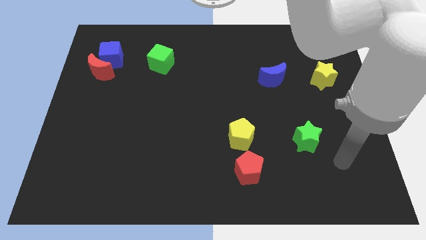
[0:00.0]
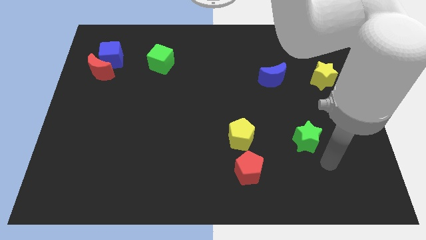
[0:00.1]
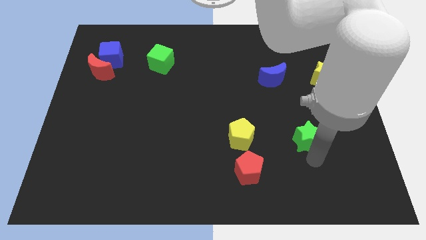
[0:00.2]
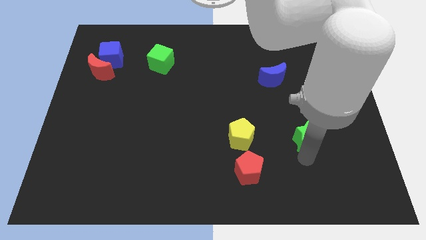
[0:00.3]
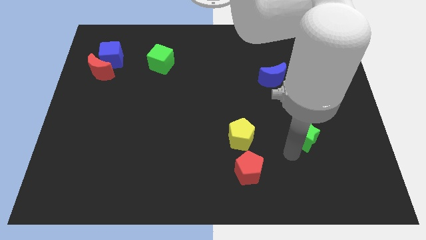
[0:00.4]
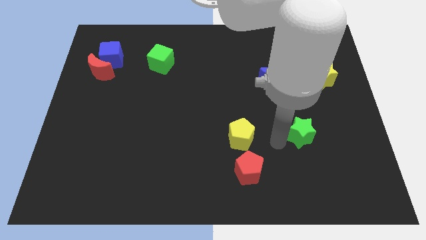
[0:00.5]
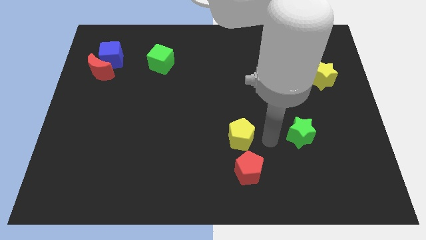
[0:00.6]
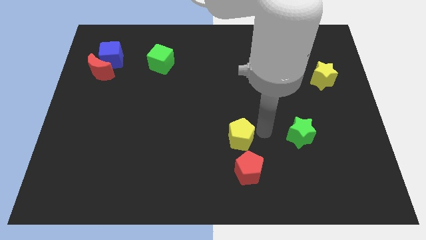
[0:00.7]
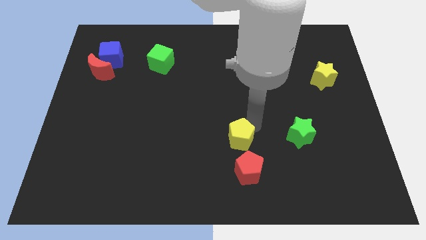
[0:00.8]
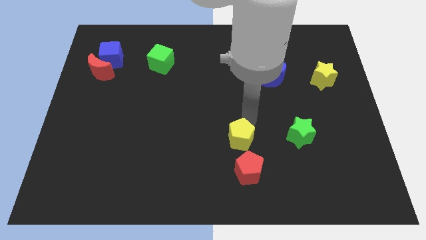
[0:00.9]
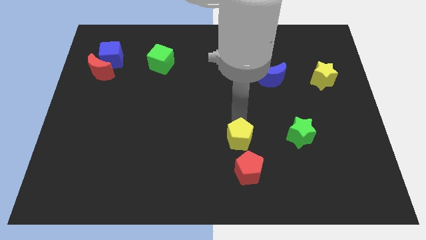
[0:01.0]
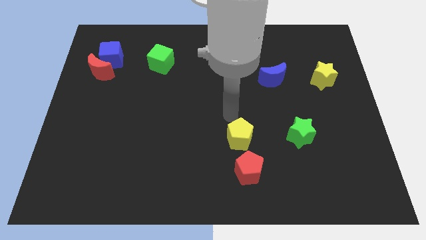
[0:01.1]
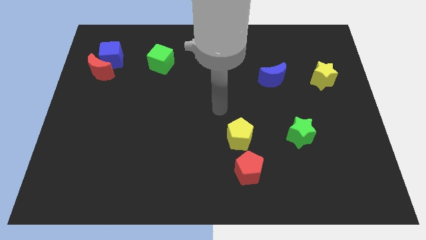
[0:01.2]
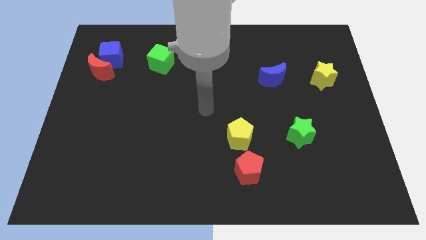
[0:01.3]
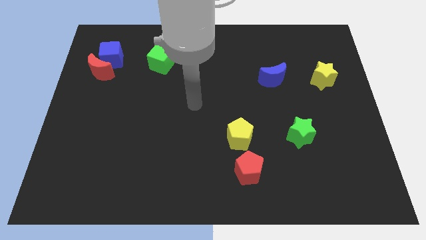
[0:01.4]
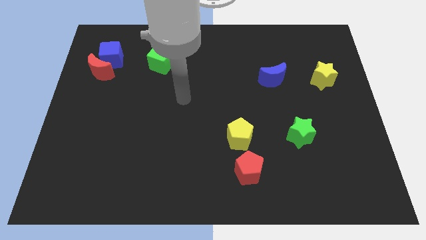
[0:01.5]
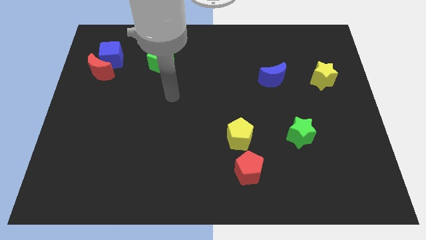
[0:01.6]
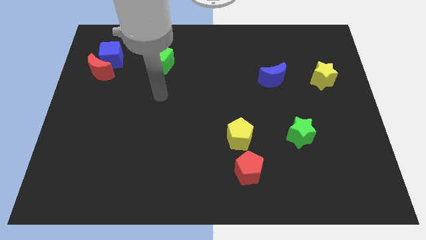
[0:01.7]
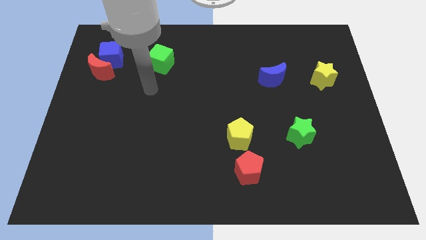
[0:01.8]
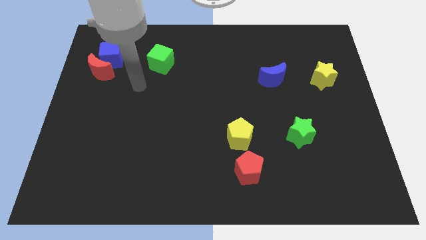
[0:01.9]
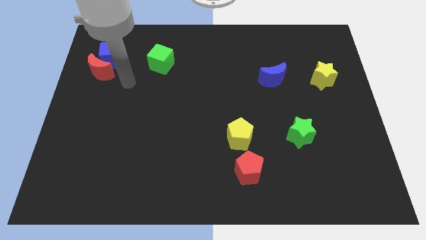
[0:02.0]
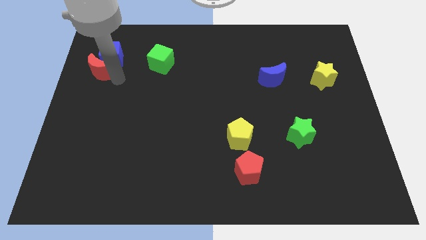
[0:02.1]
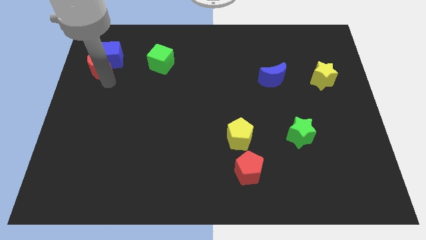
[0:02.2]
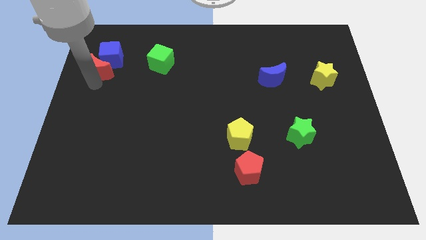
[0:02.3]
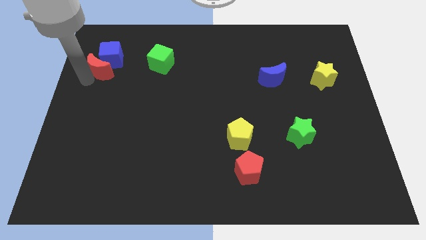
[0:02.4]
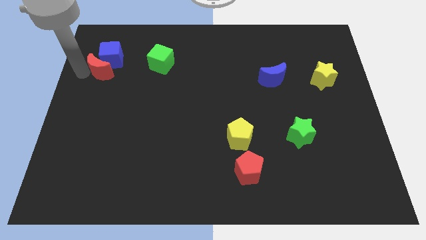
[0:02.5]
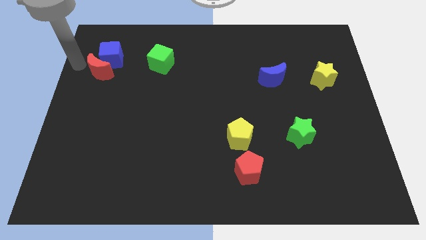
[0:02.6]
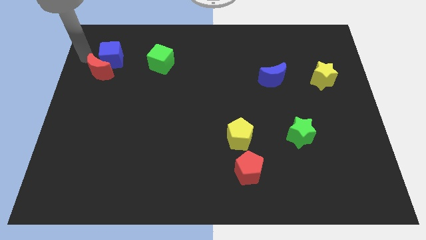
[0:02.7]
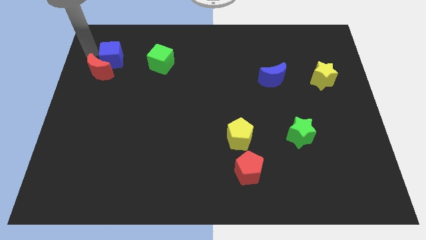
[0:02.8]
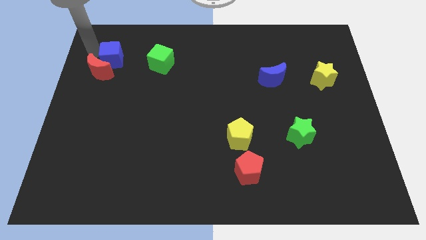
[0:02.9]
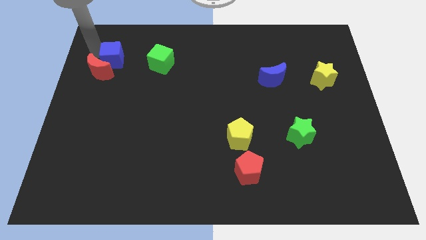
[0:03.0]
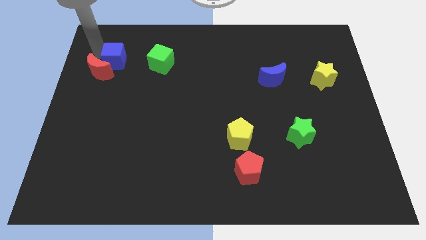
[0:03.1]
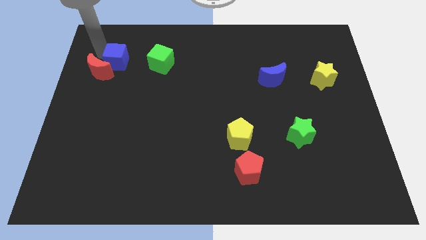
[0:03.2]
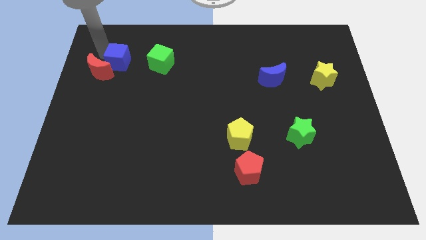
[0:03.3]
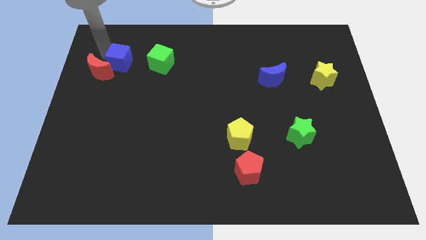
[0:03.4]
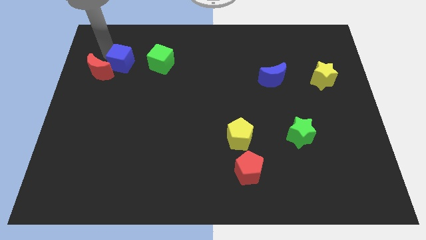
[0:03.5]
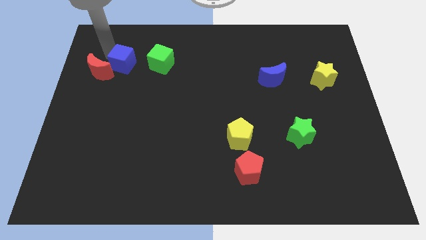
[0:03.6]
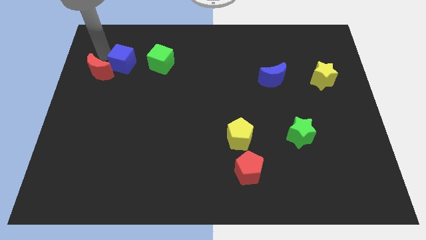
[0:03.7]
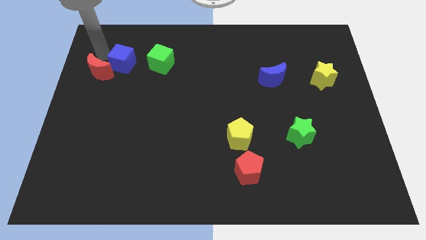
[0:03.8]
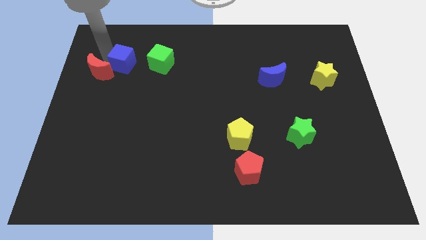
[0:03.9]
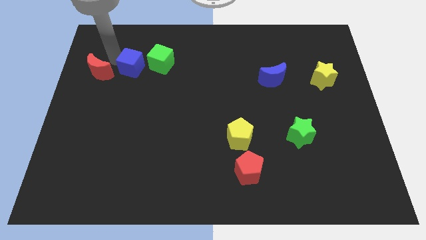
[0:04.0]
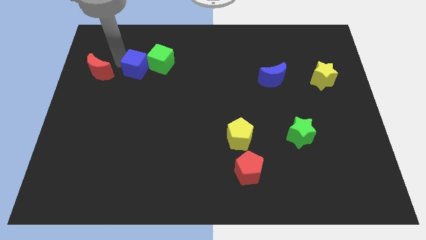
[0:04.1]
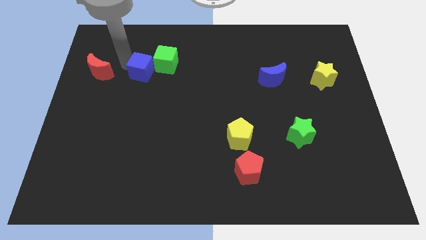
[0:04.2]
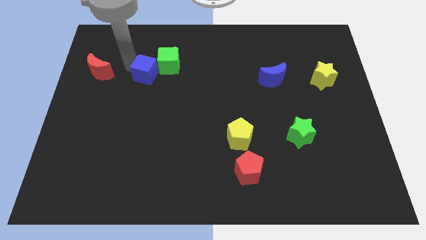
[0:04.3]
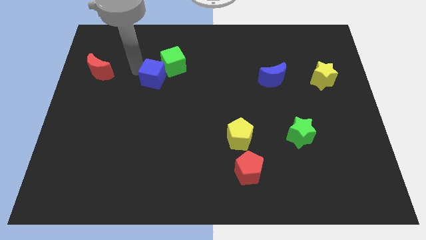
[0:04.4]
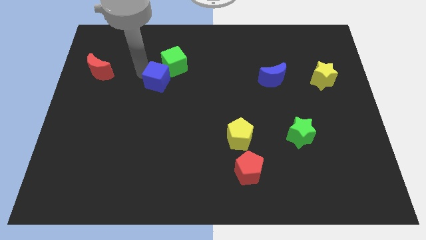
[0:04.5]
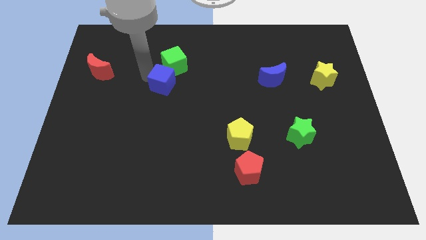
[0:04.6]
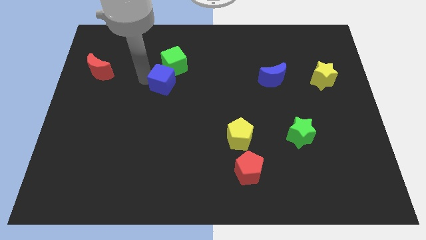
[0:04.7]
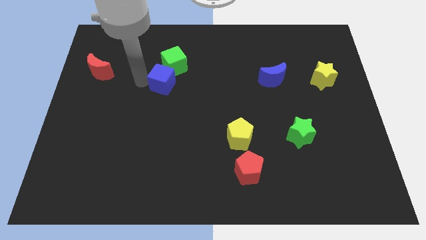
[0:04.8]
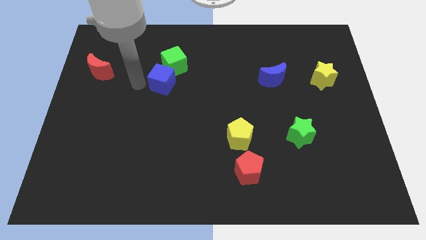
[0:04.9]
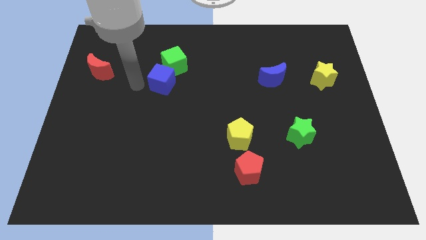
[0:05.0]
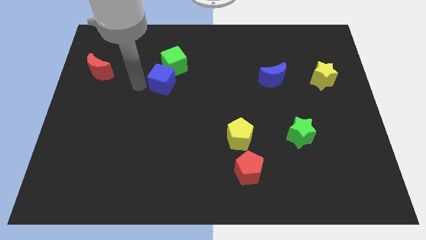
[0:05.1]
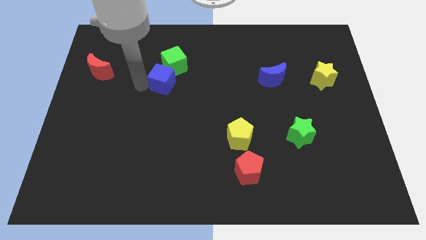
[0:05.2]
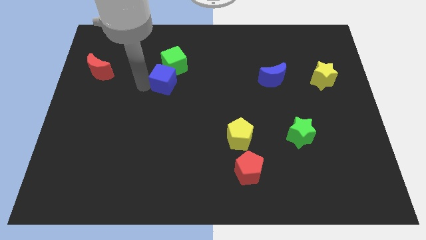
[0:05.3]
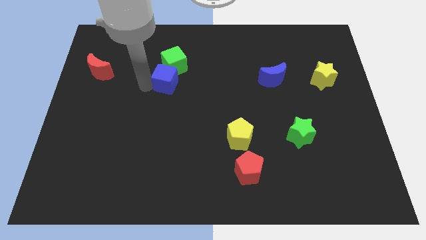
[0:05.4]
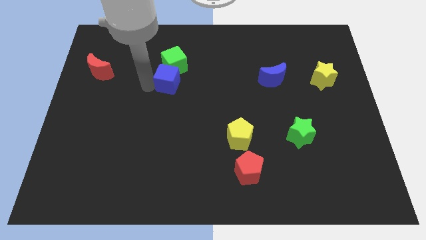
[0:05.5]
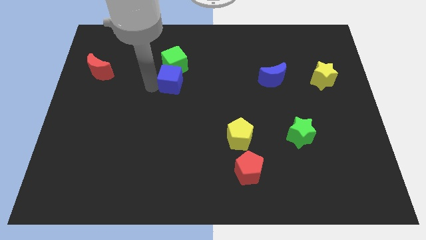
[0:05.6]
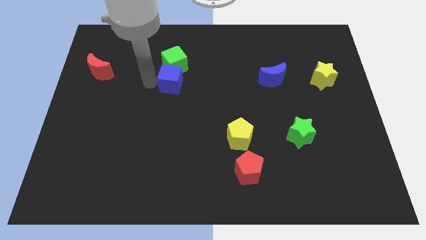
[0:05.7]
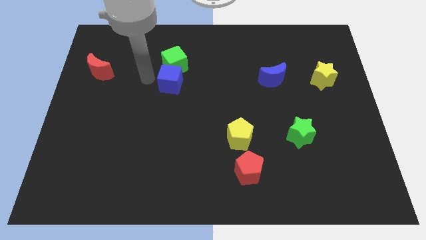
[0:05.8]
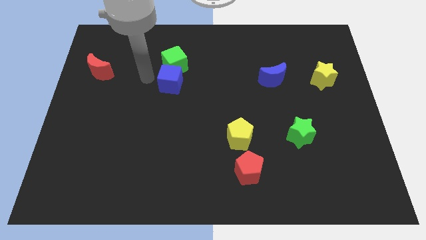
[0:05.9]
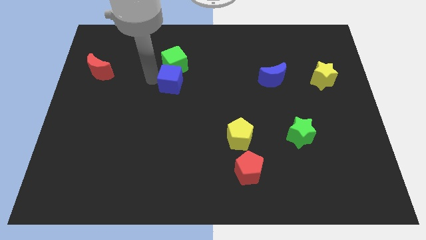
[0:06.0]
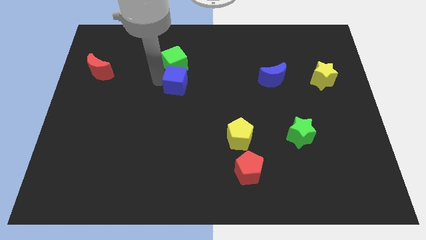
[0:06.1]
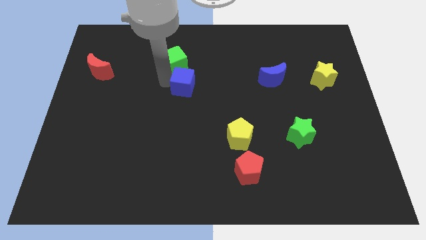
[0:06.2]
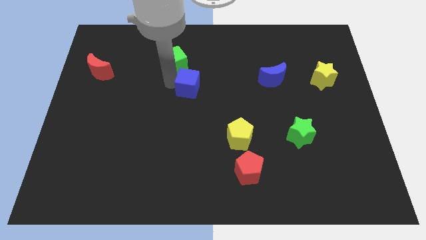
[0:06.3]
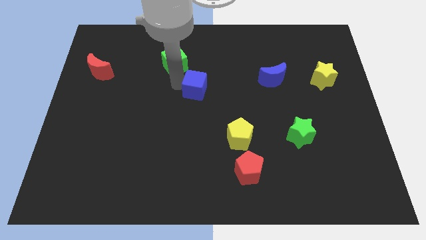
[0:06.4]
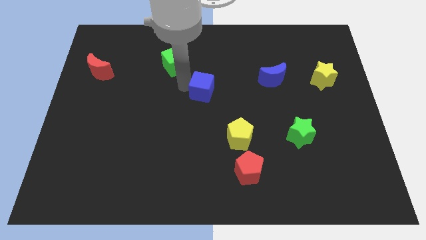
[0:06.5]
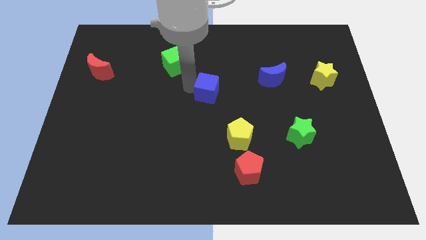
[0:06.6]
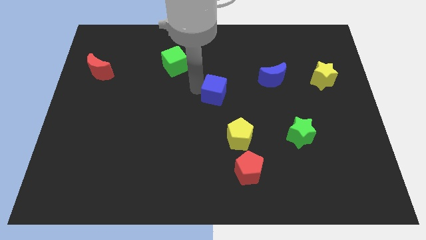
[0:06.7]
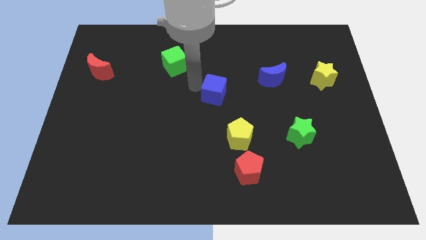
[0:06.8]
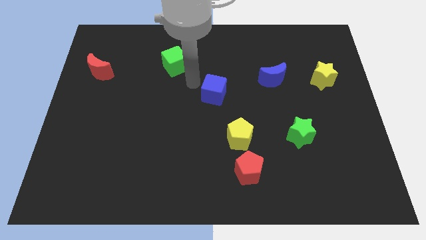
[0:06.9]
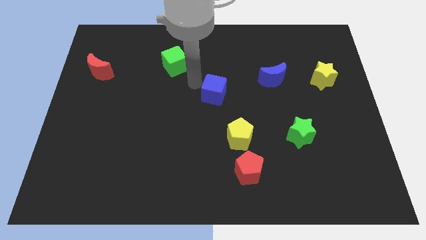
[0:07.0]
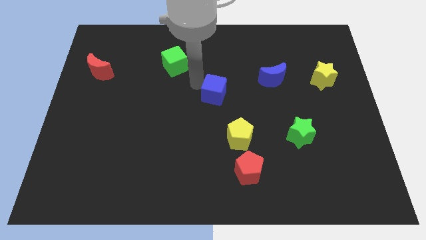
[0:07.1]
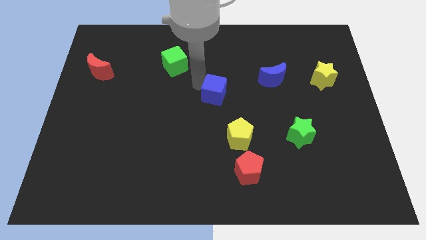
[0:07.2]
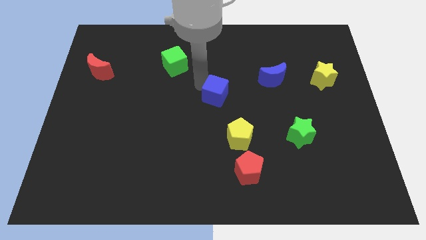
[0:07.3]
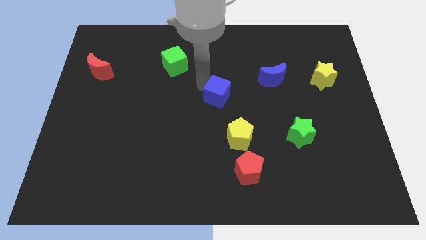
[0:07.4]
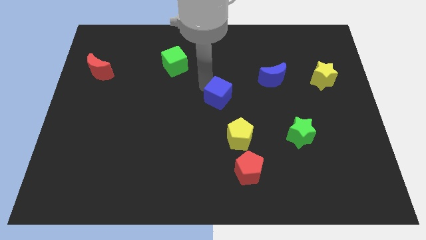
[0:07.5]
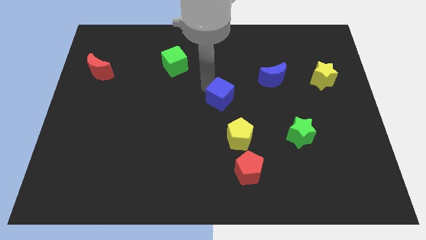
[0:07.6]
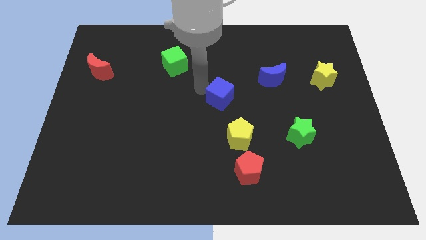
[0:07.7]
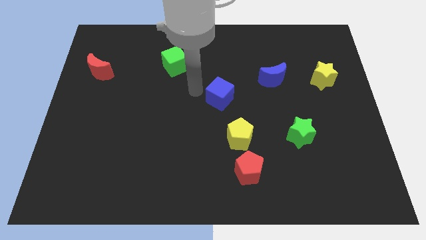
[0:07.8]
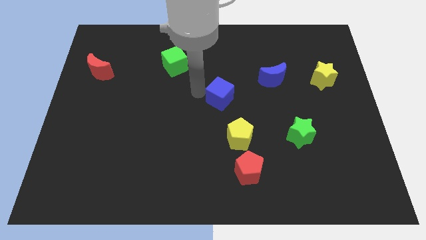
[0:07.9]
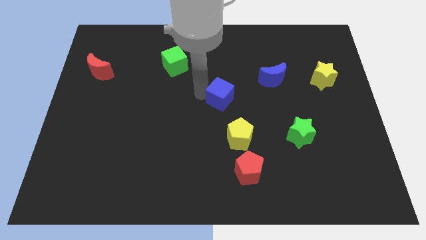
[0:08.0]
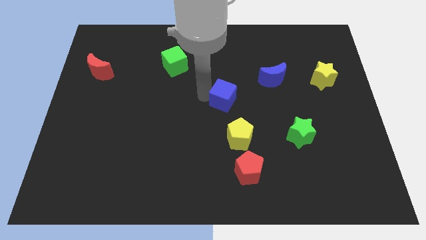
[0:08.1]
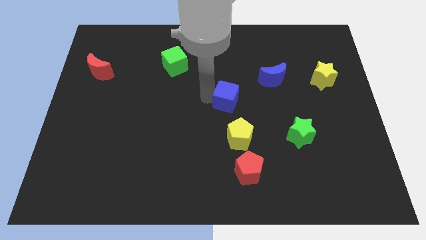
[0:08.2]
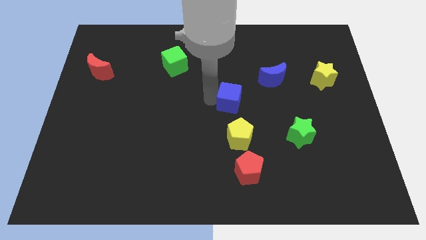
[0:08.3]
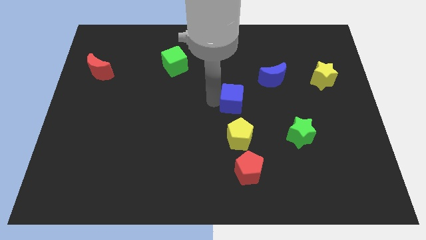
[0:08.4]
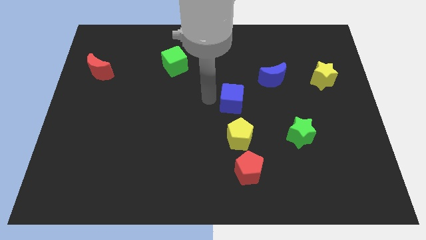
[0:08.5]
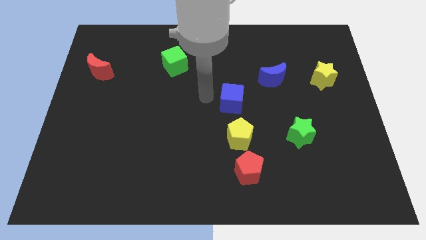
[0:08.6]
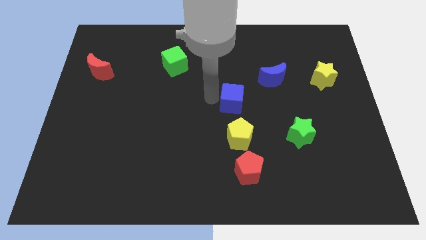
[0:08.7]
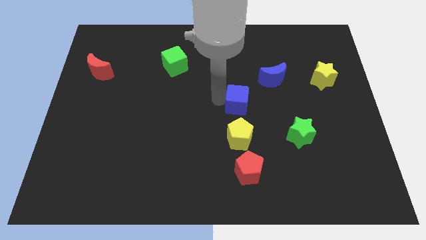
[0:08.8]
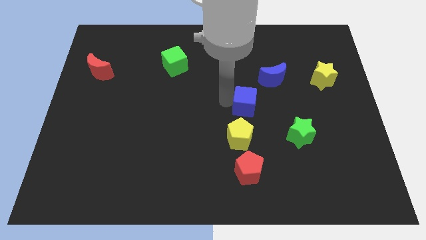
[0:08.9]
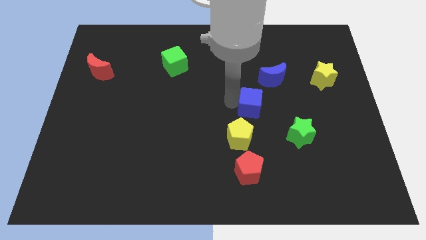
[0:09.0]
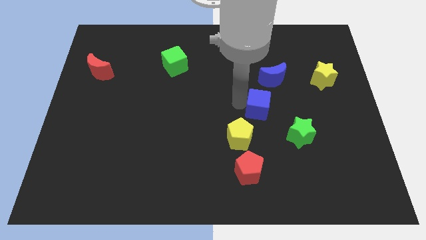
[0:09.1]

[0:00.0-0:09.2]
put the blue cube to the top left of the green star
